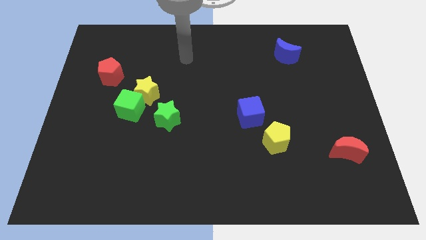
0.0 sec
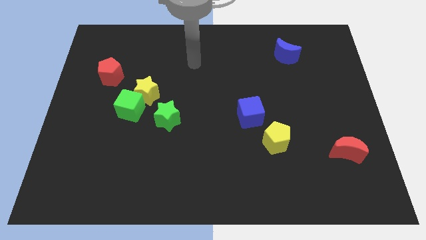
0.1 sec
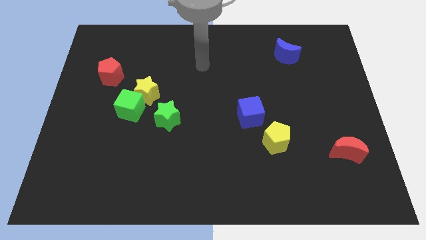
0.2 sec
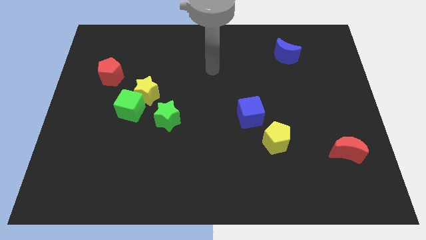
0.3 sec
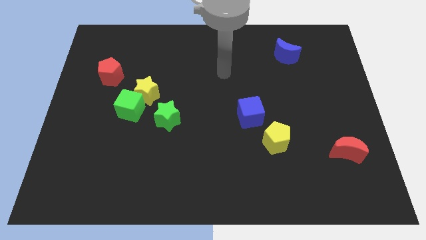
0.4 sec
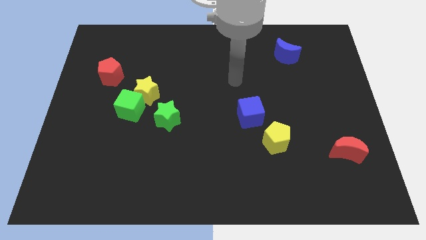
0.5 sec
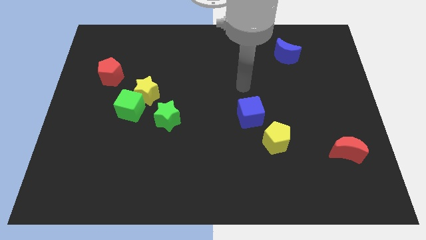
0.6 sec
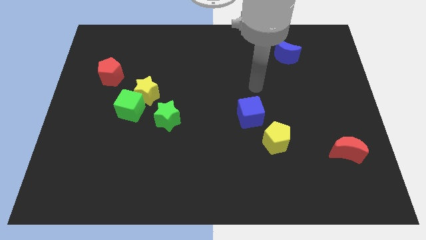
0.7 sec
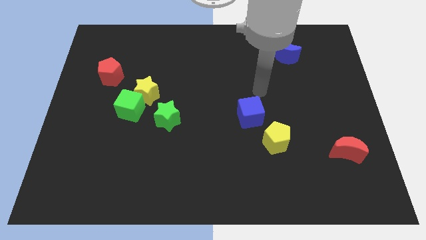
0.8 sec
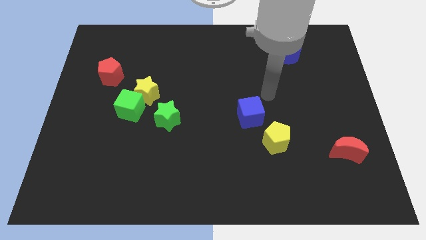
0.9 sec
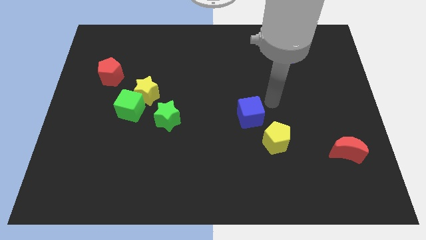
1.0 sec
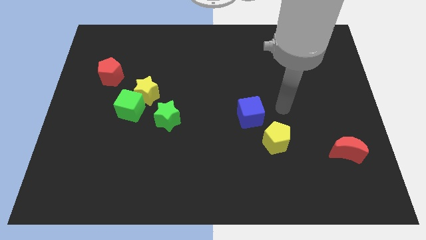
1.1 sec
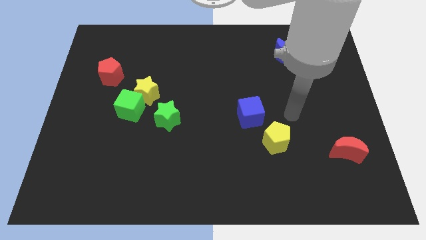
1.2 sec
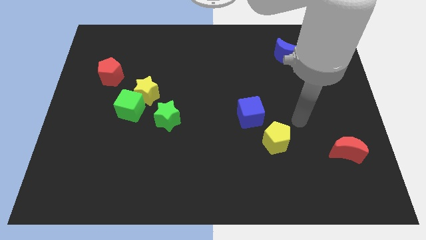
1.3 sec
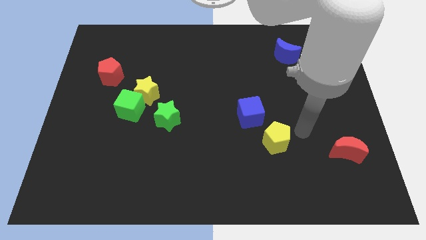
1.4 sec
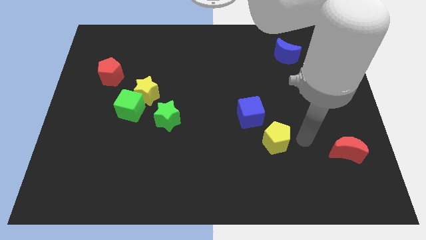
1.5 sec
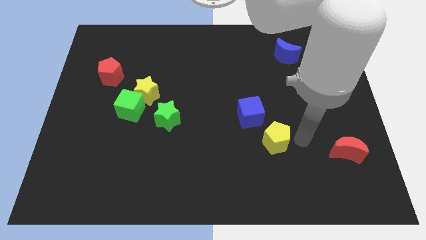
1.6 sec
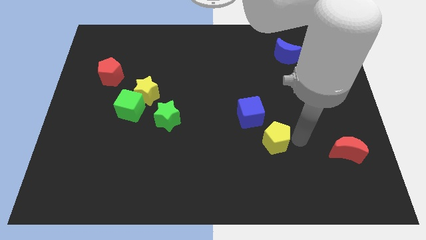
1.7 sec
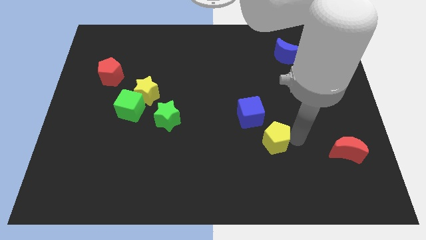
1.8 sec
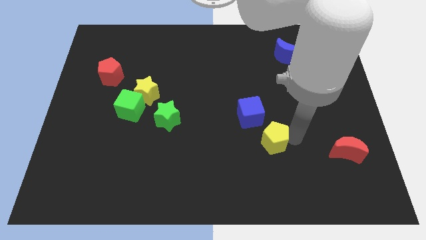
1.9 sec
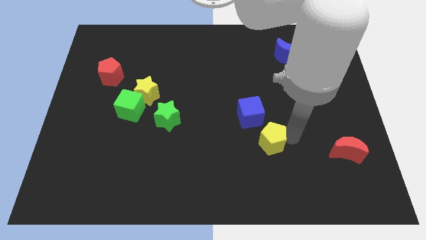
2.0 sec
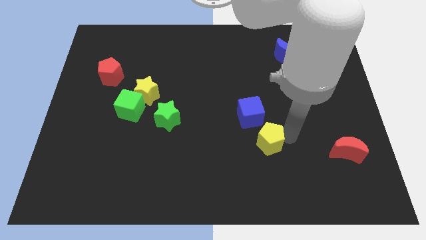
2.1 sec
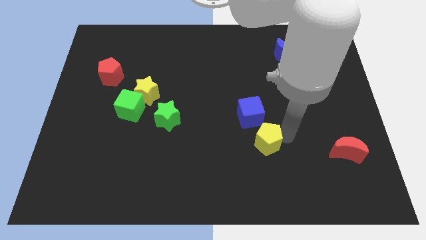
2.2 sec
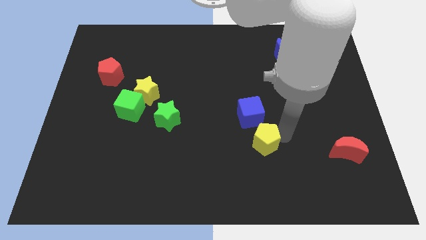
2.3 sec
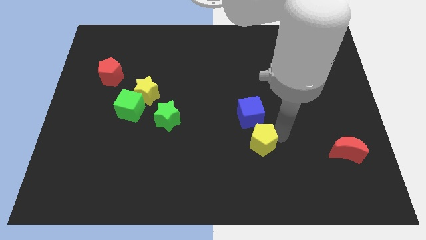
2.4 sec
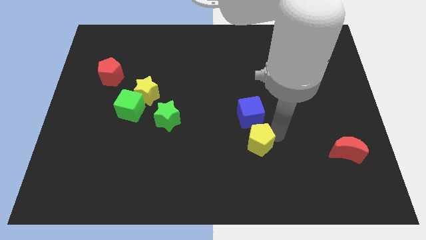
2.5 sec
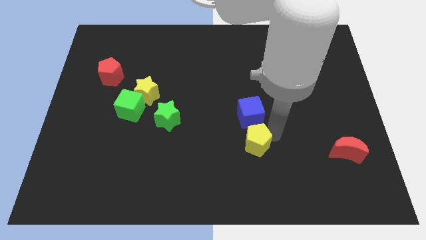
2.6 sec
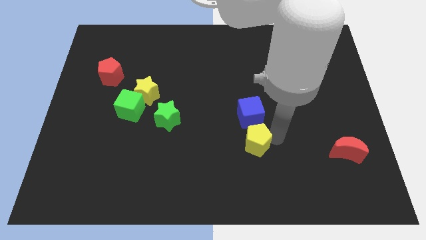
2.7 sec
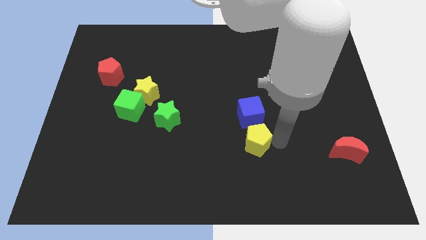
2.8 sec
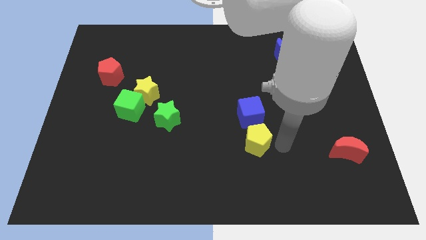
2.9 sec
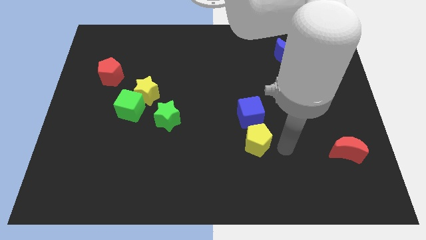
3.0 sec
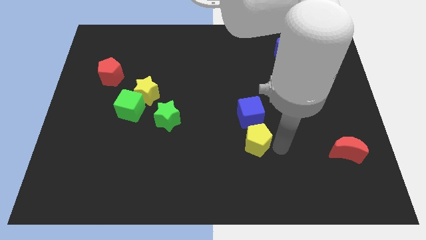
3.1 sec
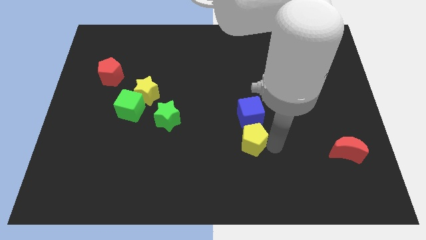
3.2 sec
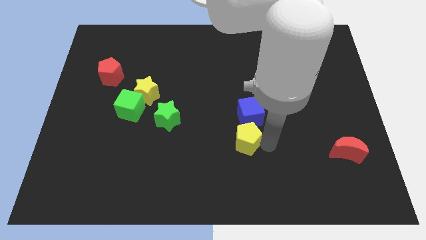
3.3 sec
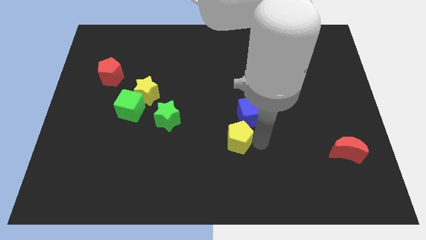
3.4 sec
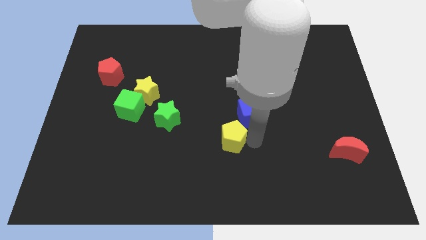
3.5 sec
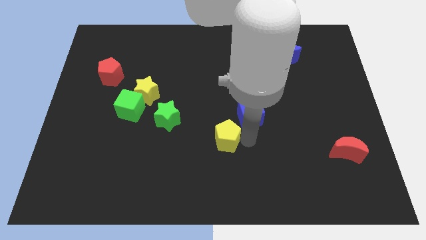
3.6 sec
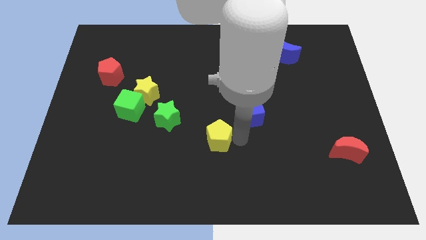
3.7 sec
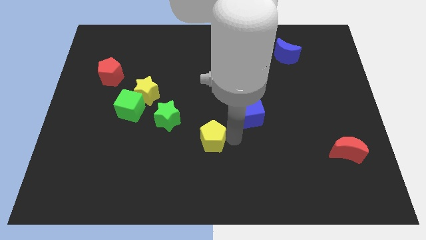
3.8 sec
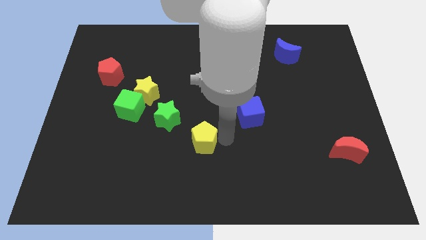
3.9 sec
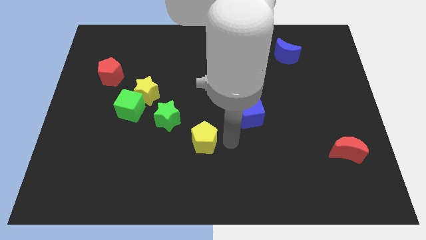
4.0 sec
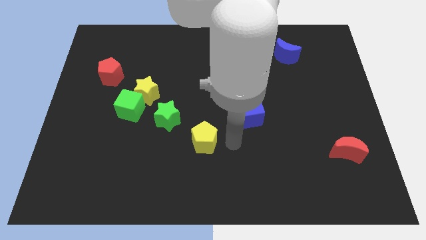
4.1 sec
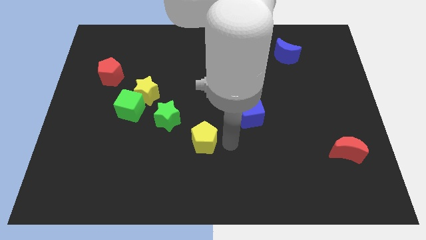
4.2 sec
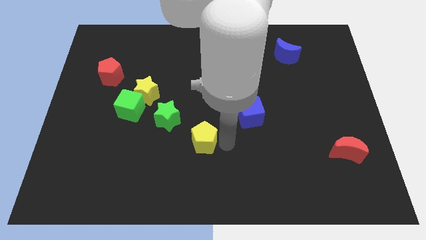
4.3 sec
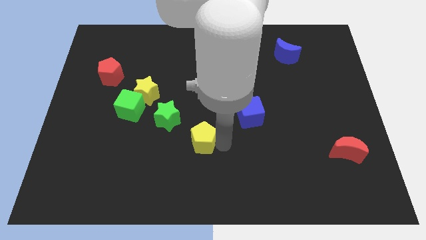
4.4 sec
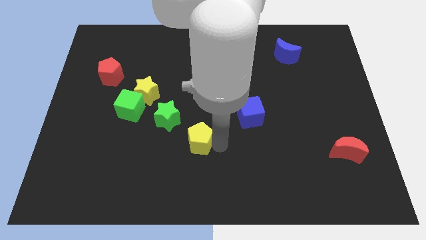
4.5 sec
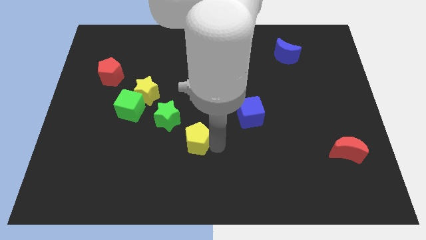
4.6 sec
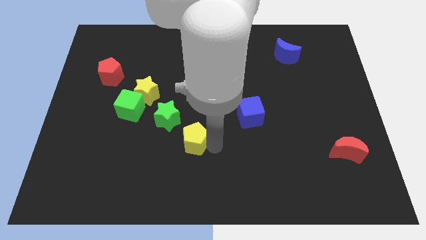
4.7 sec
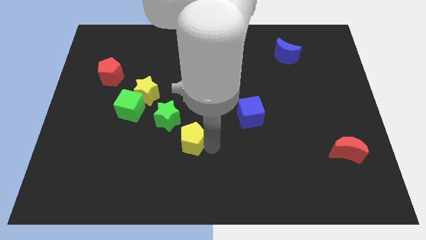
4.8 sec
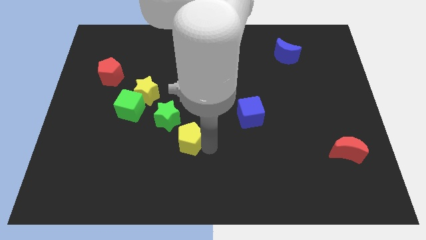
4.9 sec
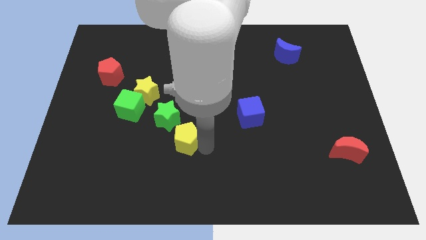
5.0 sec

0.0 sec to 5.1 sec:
move the yellow pentagon to the left

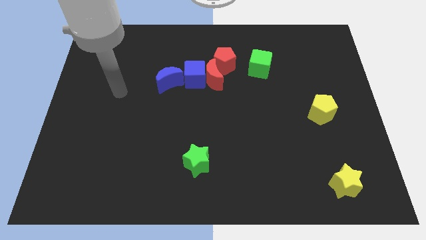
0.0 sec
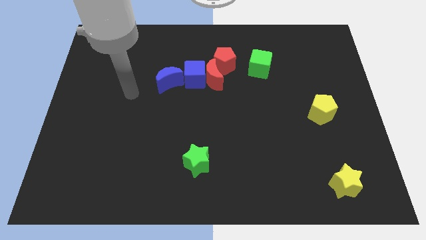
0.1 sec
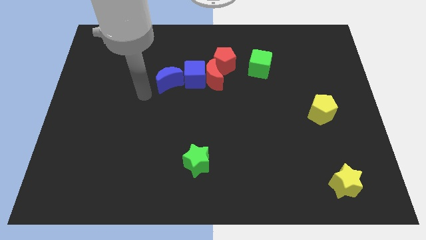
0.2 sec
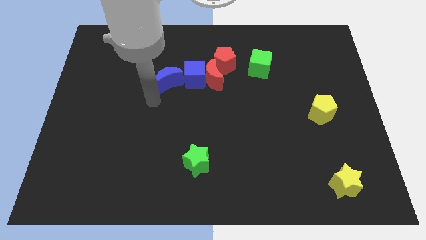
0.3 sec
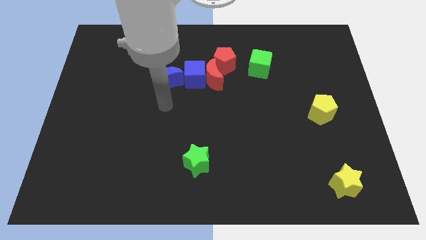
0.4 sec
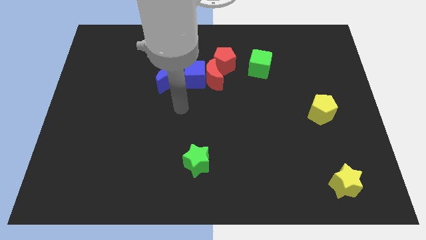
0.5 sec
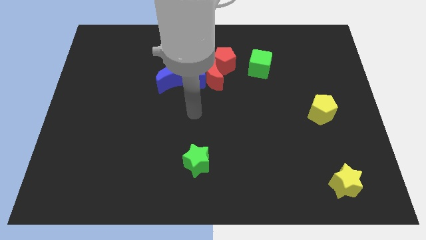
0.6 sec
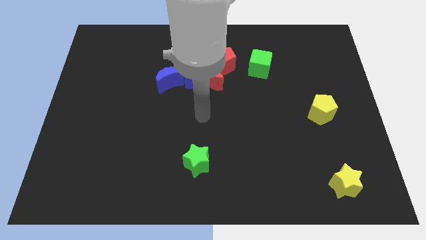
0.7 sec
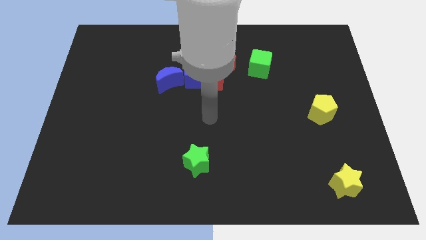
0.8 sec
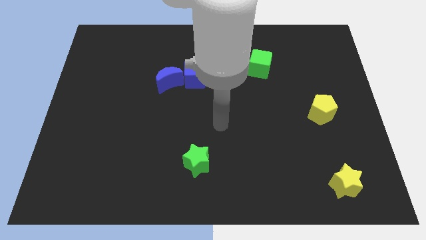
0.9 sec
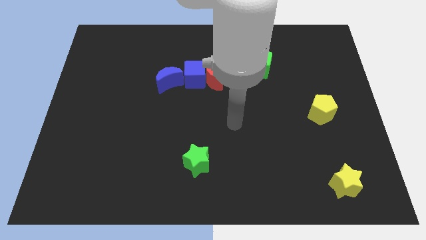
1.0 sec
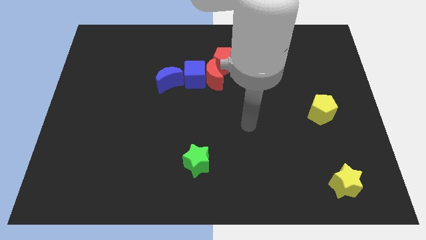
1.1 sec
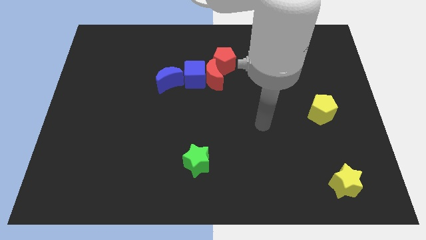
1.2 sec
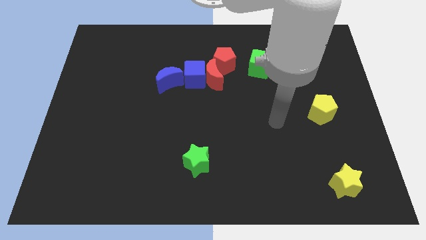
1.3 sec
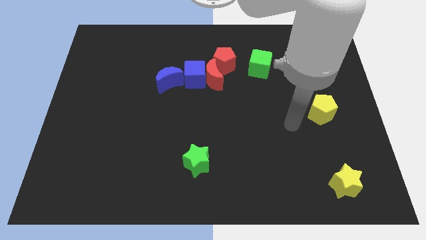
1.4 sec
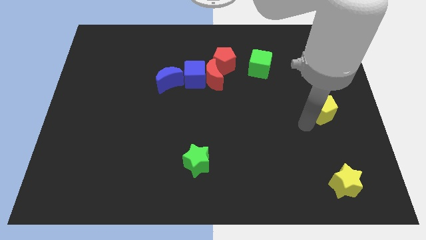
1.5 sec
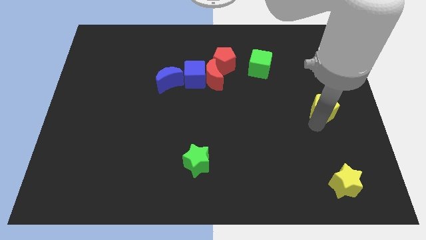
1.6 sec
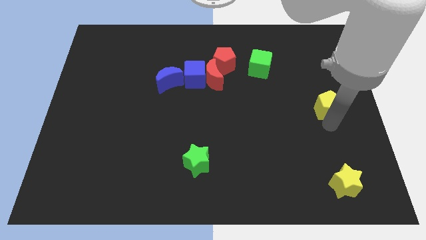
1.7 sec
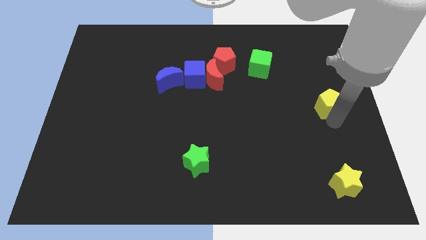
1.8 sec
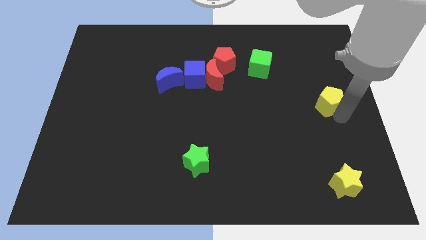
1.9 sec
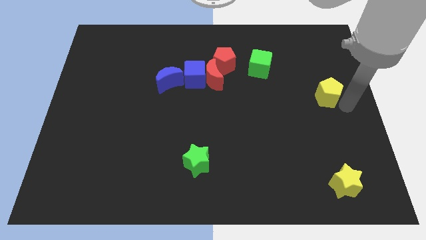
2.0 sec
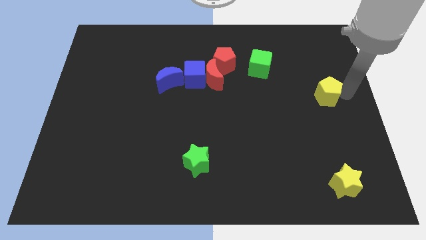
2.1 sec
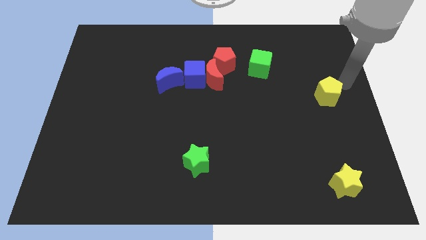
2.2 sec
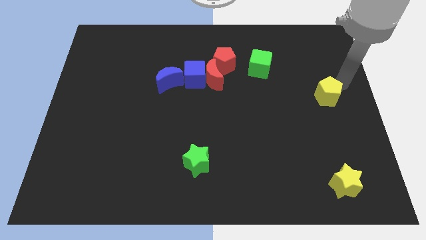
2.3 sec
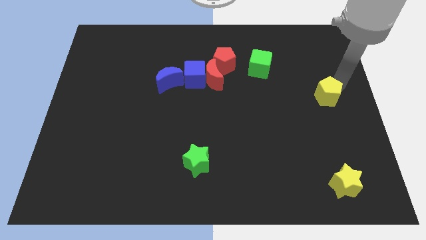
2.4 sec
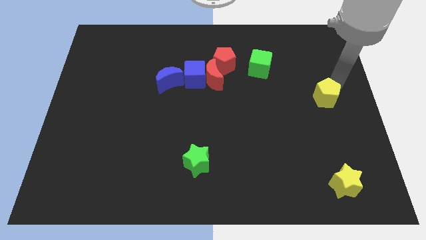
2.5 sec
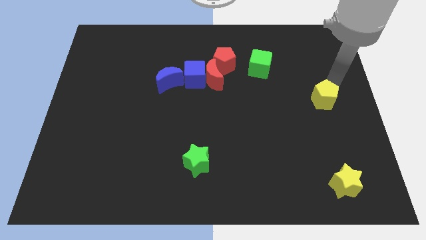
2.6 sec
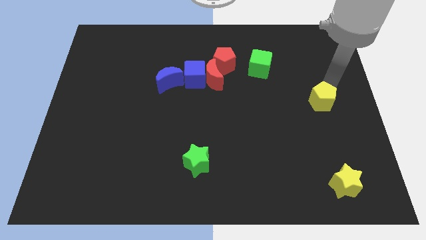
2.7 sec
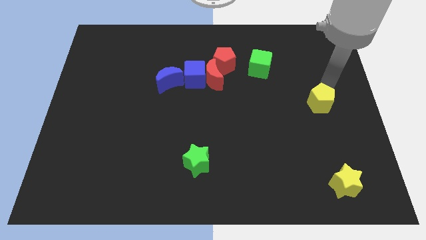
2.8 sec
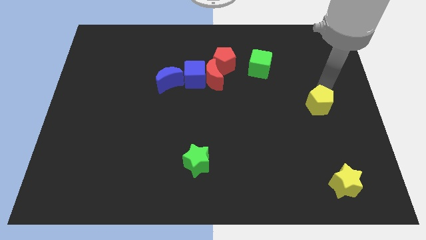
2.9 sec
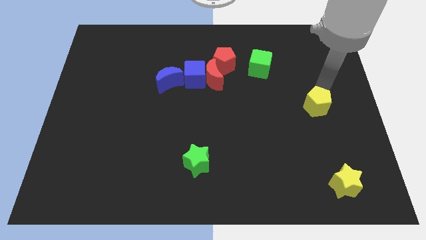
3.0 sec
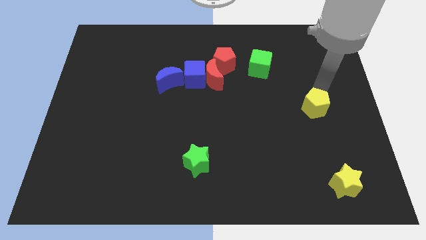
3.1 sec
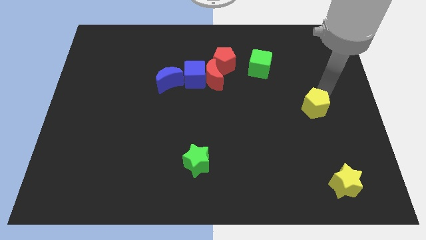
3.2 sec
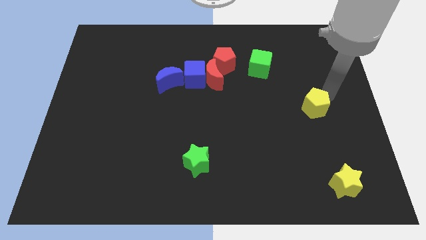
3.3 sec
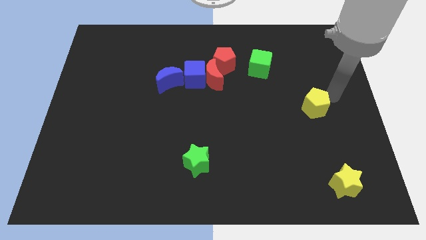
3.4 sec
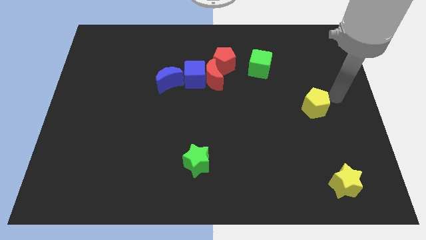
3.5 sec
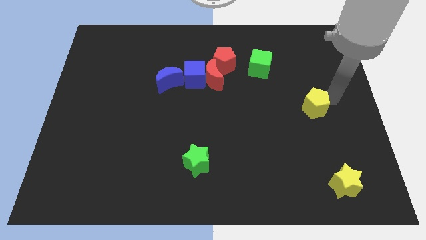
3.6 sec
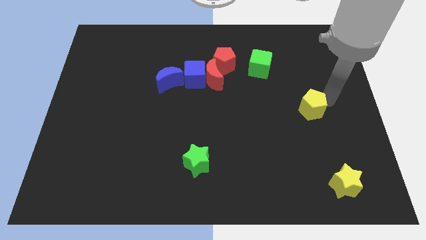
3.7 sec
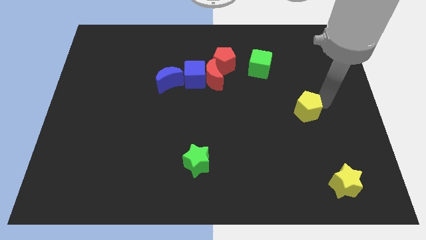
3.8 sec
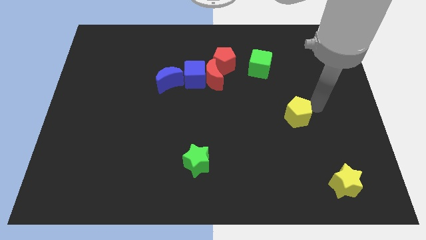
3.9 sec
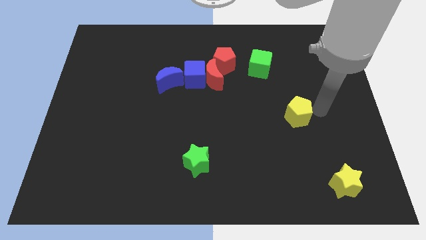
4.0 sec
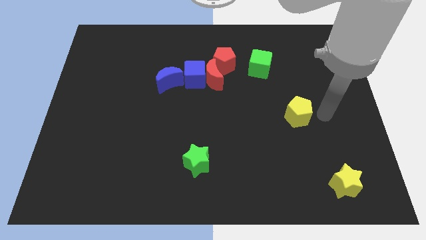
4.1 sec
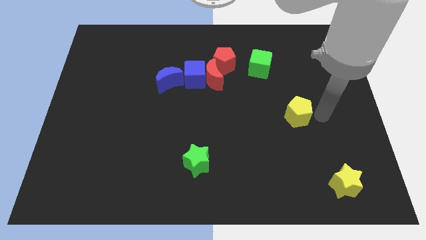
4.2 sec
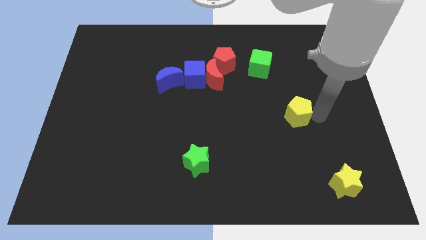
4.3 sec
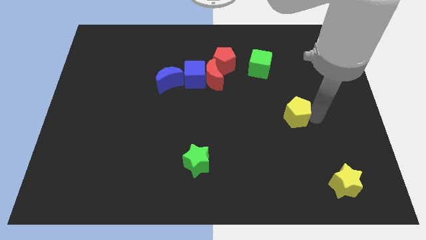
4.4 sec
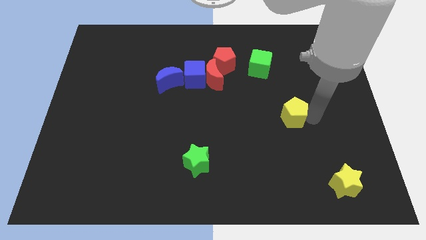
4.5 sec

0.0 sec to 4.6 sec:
slide the yellow pentagon to the left a bit
